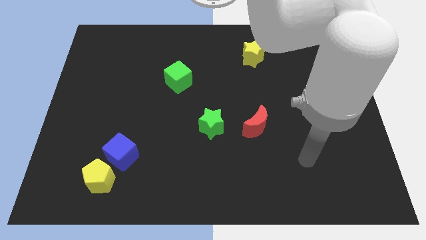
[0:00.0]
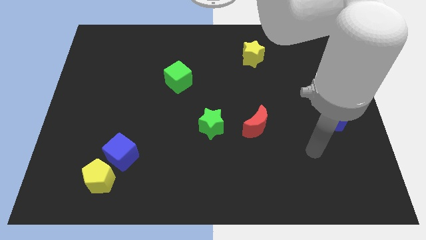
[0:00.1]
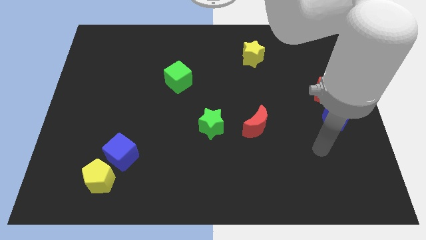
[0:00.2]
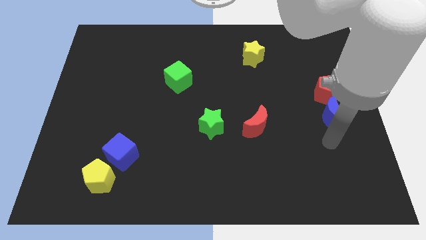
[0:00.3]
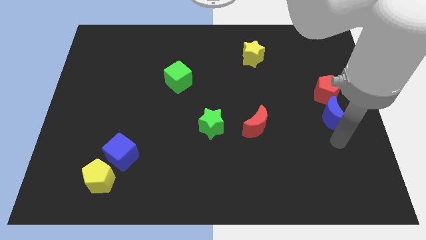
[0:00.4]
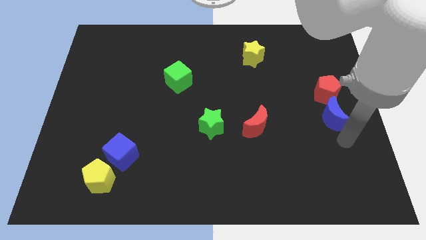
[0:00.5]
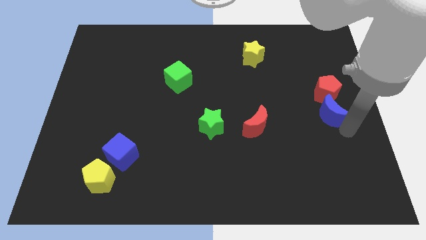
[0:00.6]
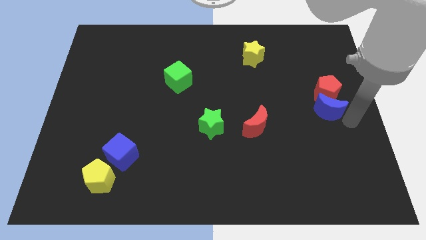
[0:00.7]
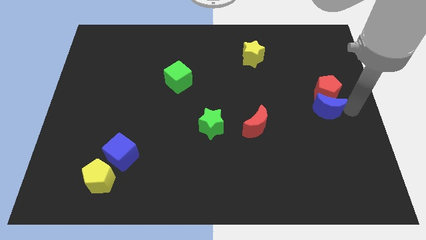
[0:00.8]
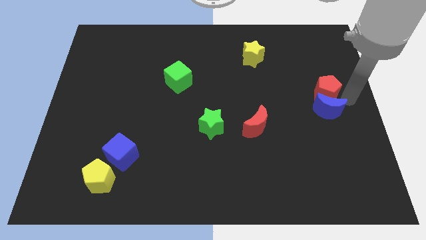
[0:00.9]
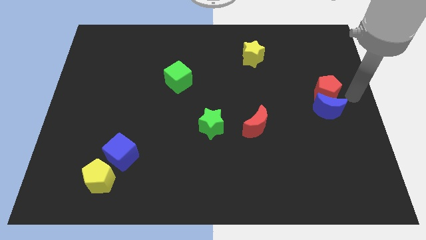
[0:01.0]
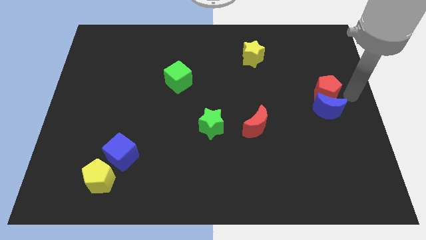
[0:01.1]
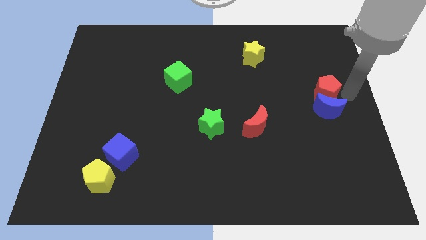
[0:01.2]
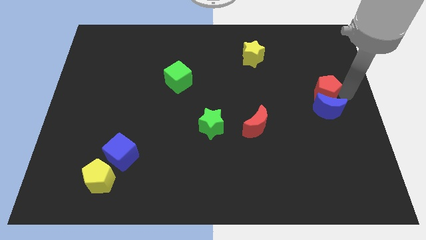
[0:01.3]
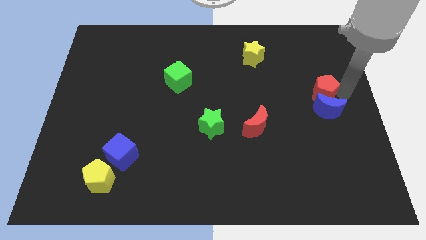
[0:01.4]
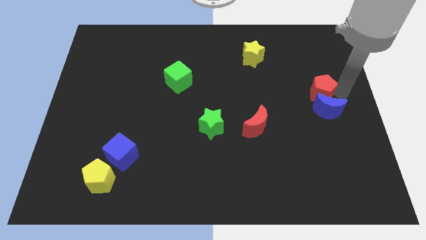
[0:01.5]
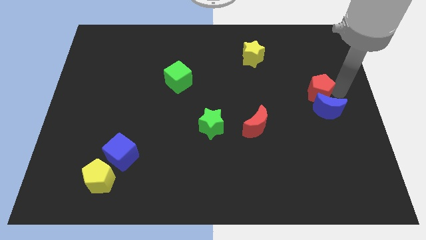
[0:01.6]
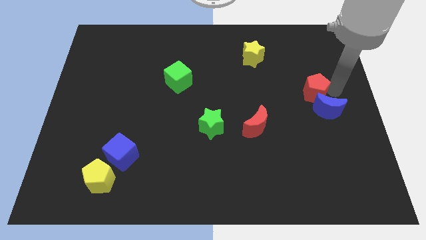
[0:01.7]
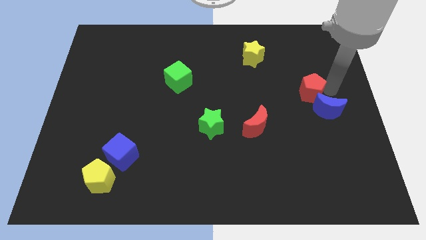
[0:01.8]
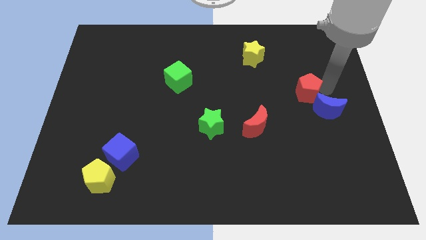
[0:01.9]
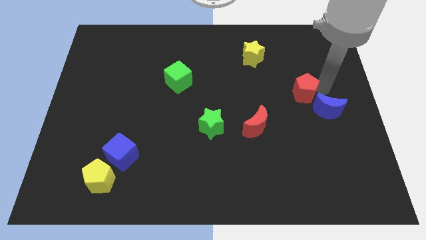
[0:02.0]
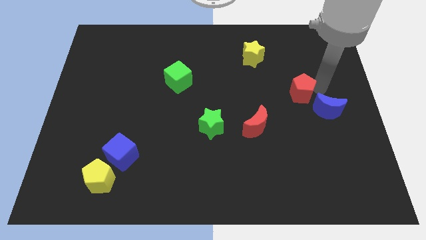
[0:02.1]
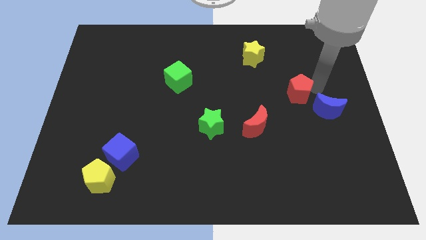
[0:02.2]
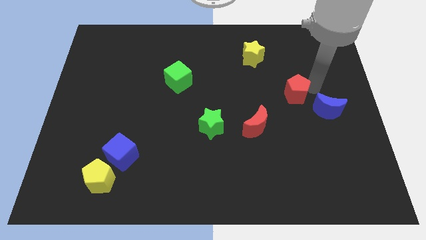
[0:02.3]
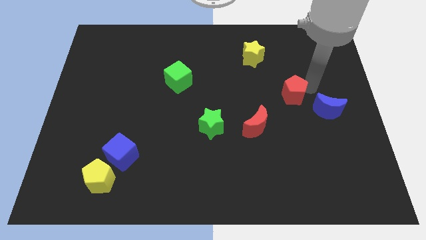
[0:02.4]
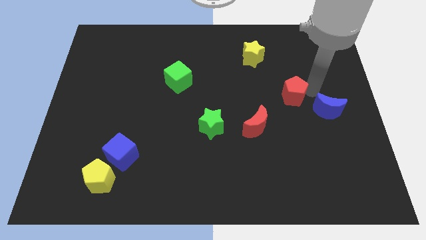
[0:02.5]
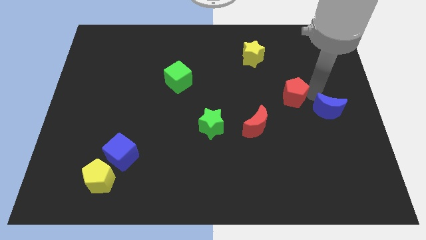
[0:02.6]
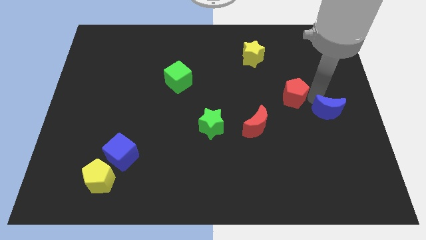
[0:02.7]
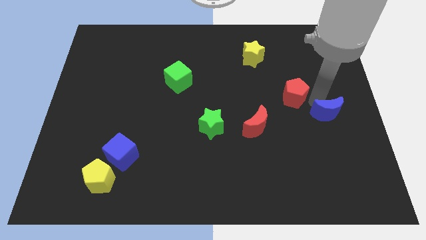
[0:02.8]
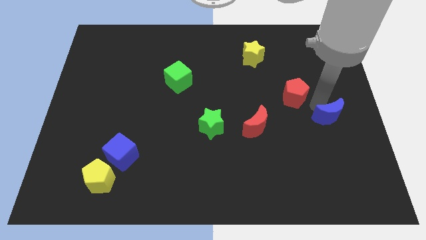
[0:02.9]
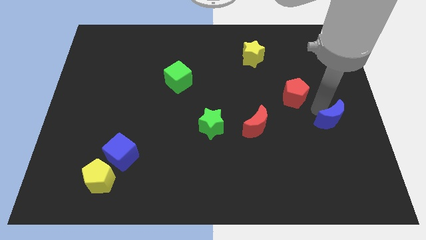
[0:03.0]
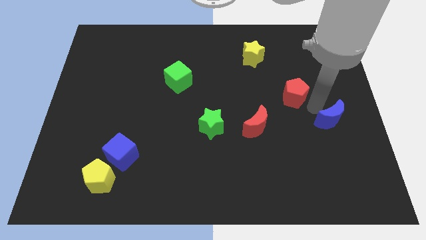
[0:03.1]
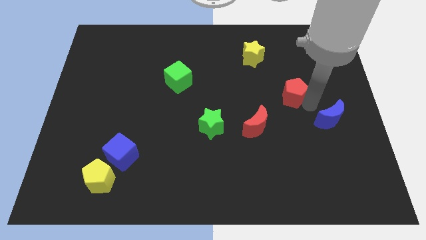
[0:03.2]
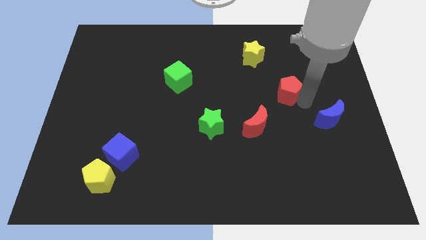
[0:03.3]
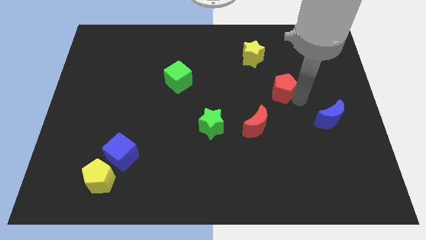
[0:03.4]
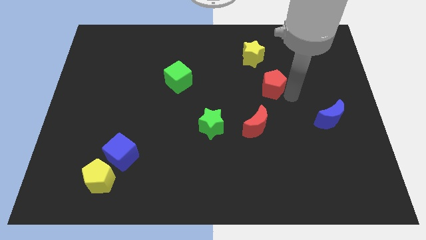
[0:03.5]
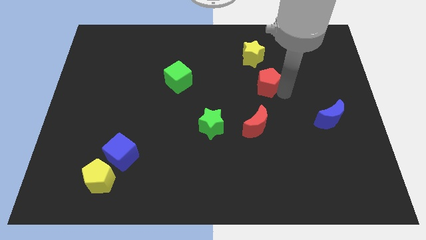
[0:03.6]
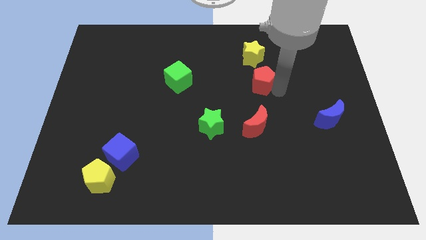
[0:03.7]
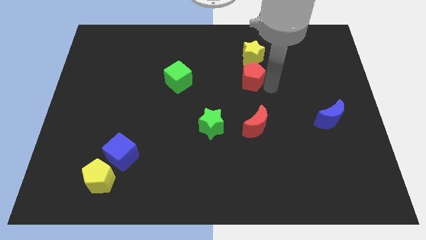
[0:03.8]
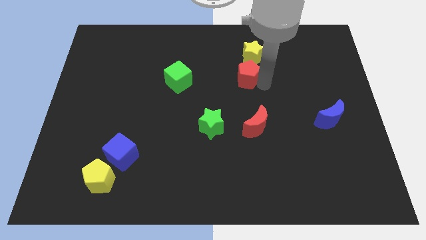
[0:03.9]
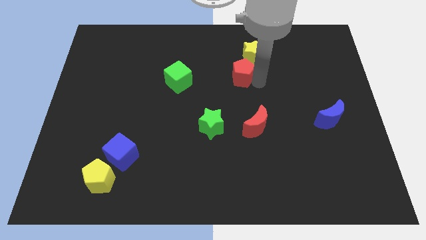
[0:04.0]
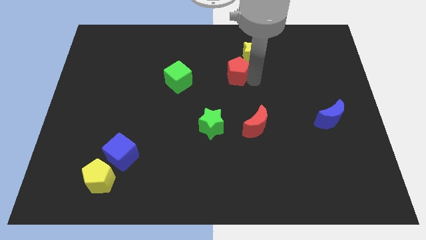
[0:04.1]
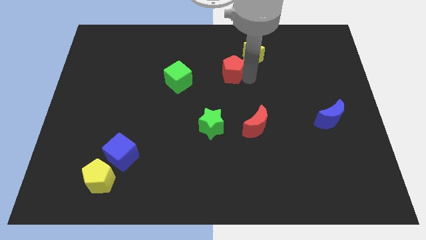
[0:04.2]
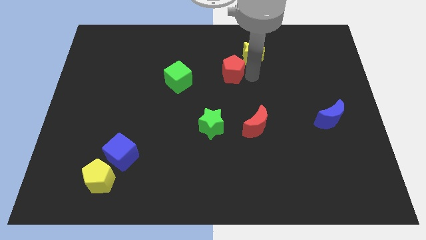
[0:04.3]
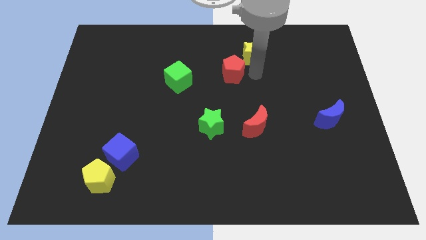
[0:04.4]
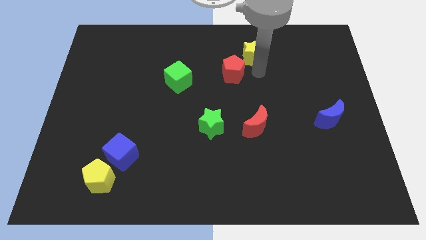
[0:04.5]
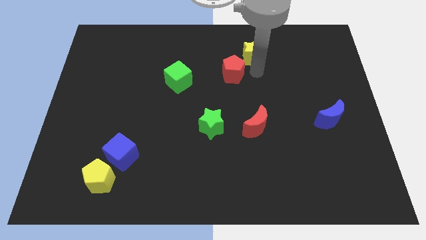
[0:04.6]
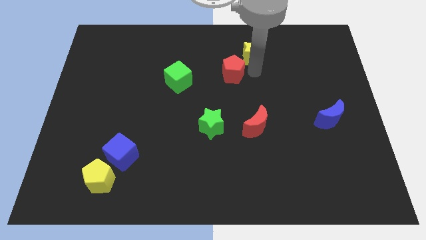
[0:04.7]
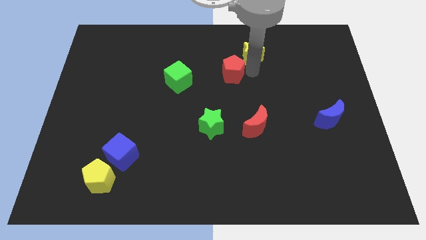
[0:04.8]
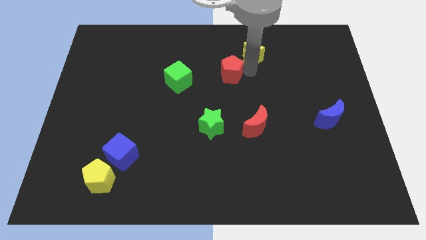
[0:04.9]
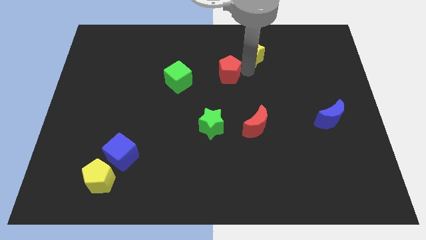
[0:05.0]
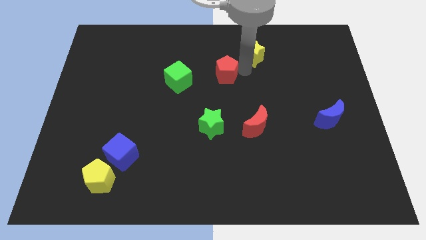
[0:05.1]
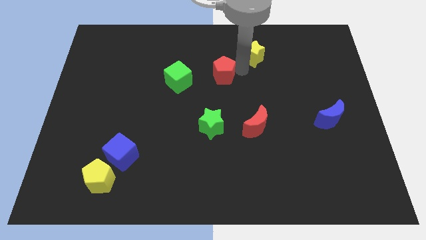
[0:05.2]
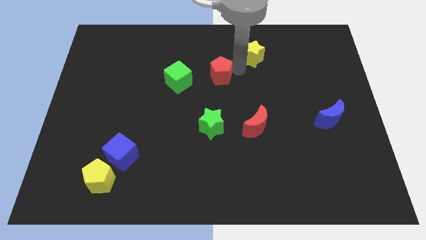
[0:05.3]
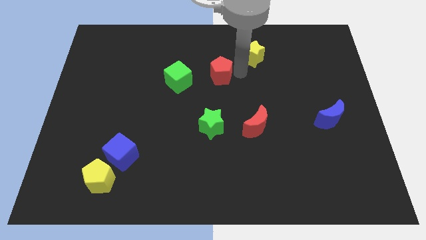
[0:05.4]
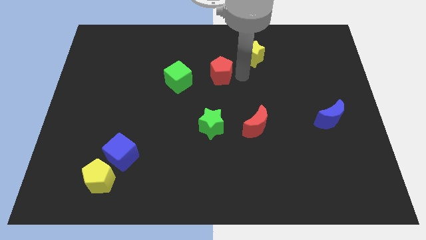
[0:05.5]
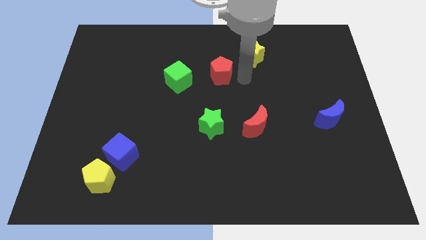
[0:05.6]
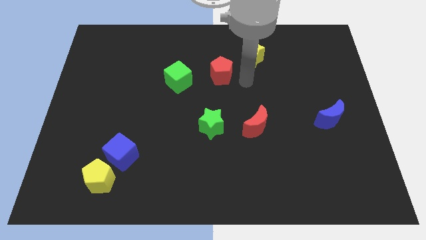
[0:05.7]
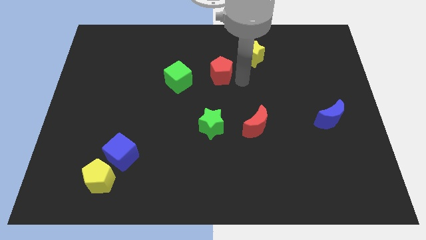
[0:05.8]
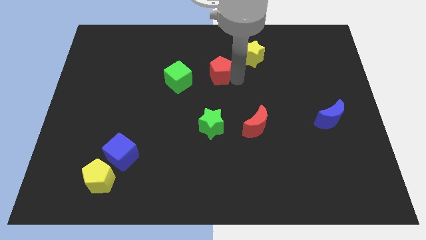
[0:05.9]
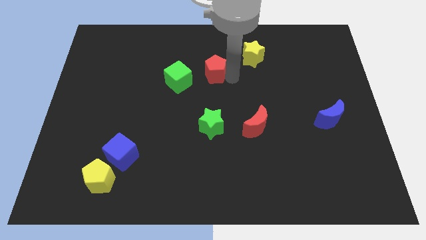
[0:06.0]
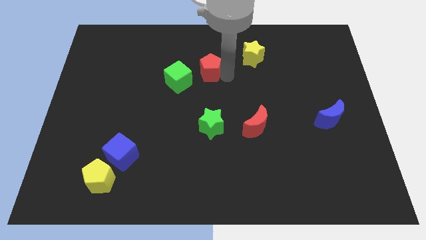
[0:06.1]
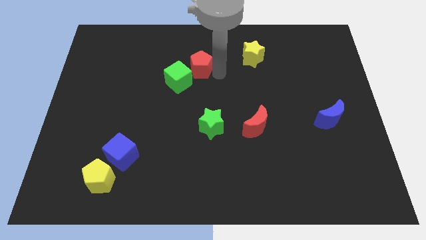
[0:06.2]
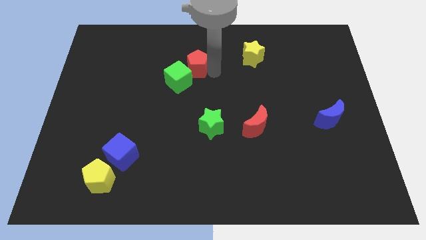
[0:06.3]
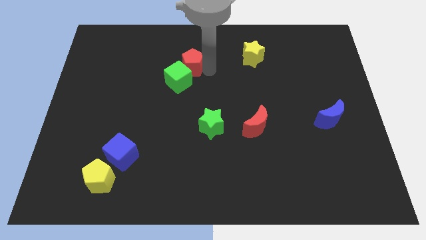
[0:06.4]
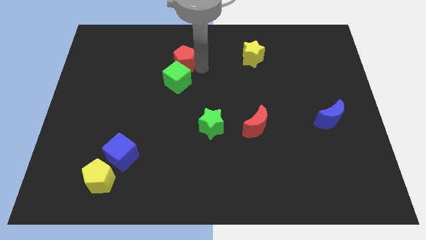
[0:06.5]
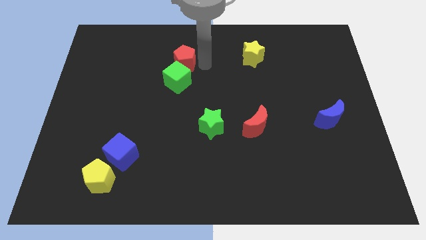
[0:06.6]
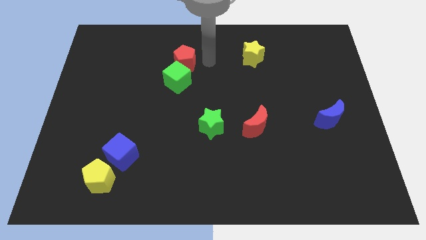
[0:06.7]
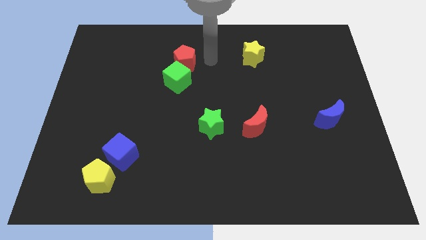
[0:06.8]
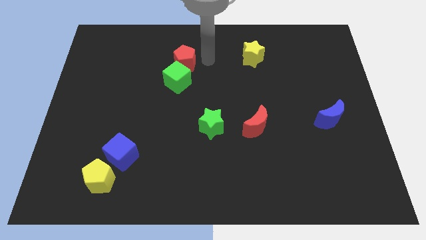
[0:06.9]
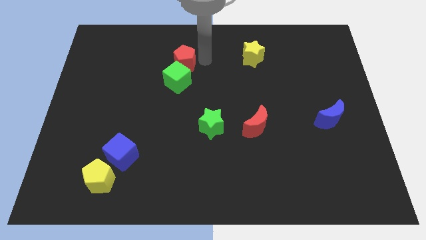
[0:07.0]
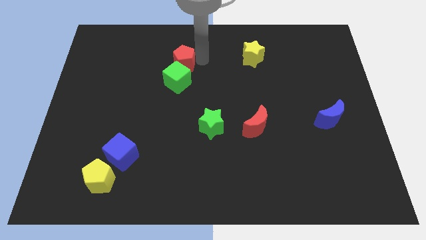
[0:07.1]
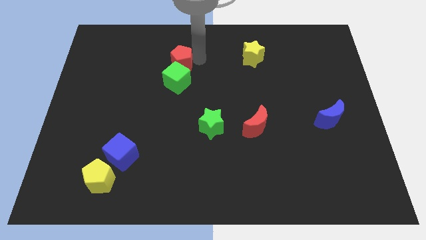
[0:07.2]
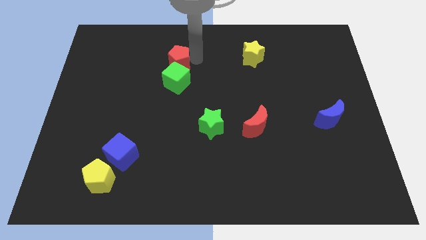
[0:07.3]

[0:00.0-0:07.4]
put the red pentagon to the top left side of the green cube
